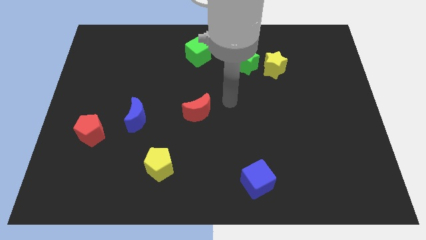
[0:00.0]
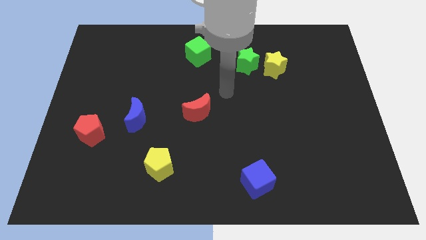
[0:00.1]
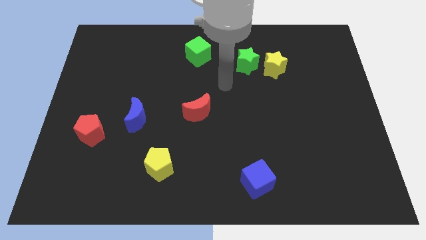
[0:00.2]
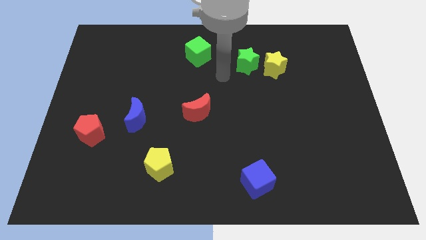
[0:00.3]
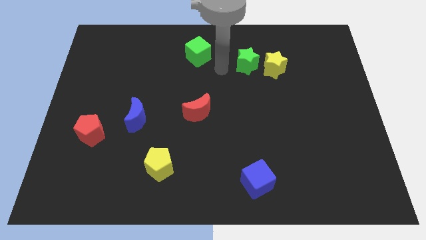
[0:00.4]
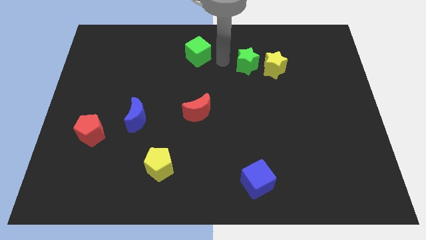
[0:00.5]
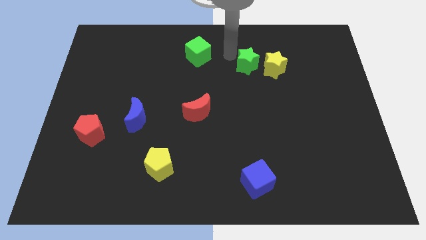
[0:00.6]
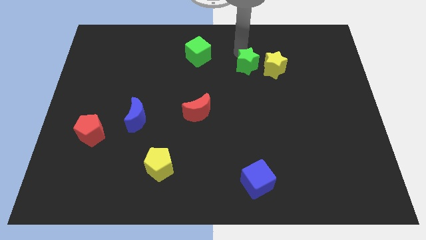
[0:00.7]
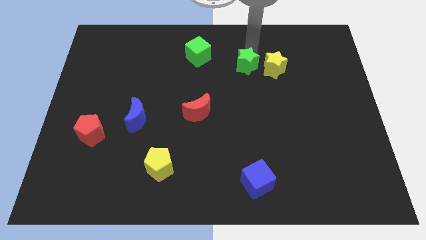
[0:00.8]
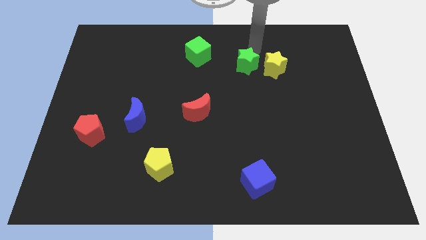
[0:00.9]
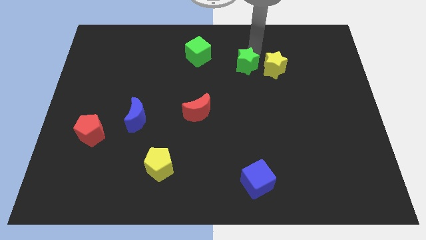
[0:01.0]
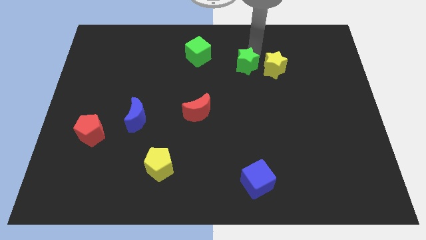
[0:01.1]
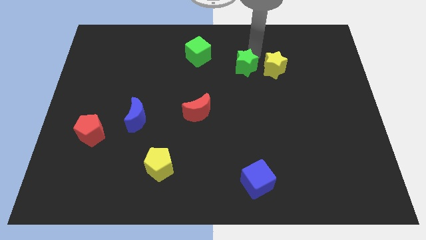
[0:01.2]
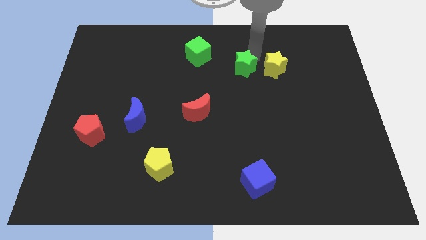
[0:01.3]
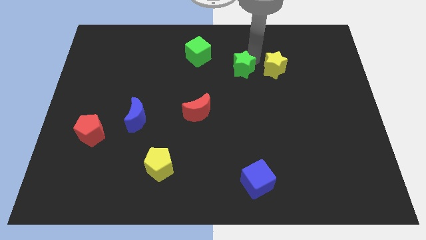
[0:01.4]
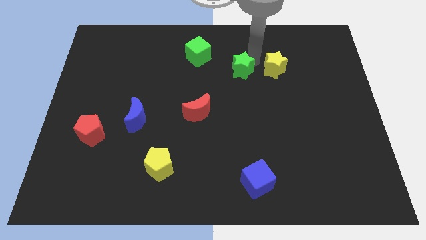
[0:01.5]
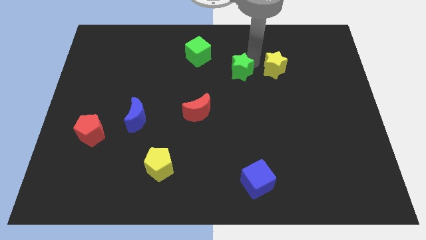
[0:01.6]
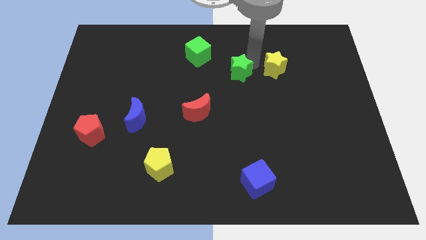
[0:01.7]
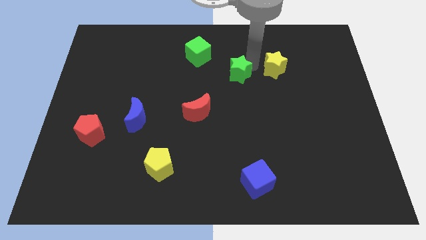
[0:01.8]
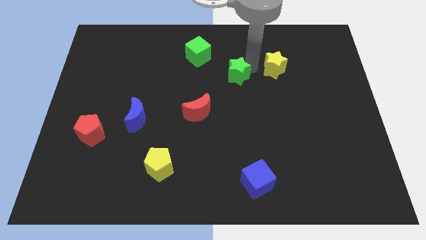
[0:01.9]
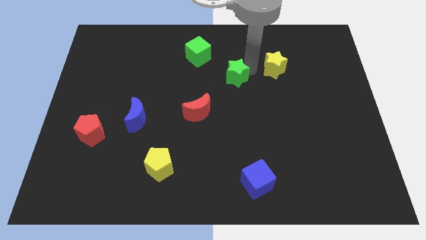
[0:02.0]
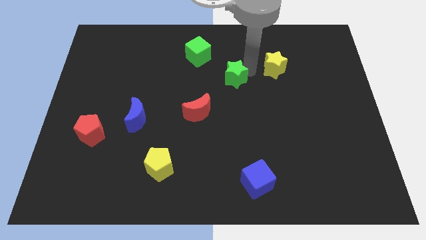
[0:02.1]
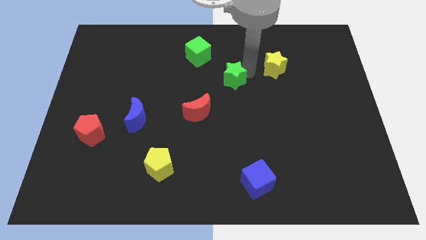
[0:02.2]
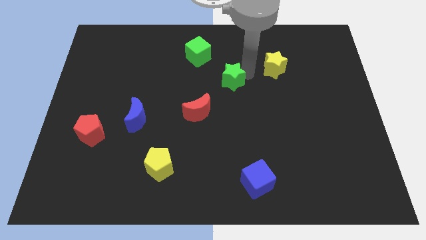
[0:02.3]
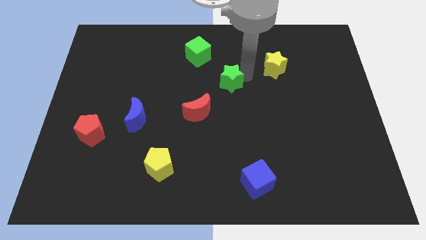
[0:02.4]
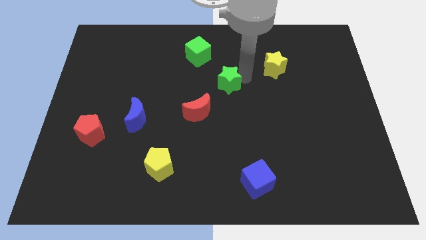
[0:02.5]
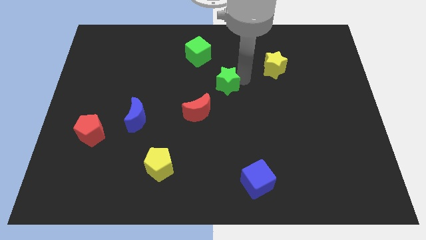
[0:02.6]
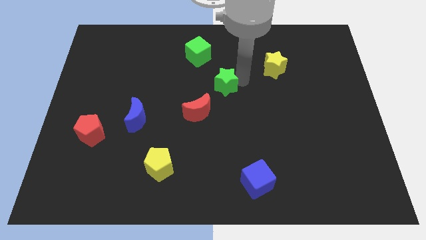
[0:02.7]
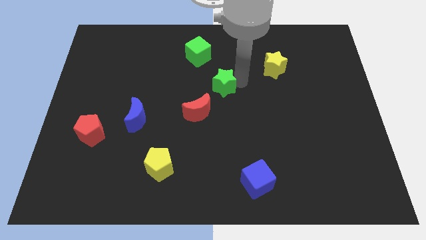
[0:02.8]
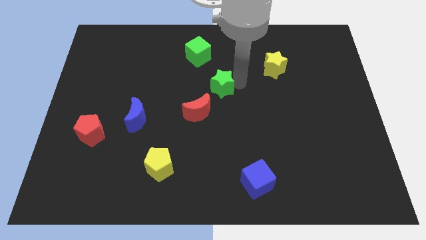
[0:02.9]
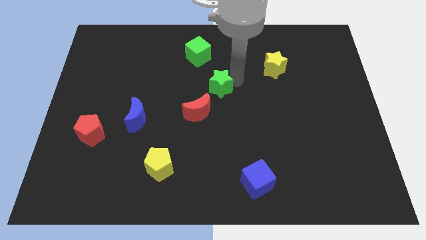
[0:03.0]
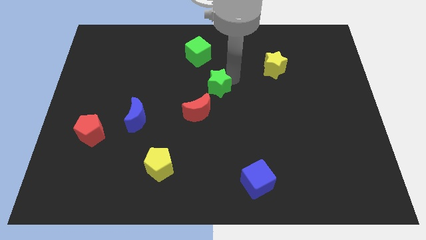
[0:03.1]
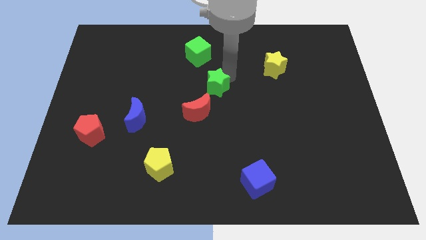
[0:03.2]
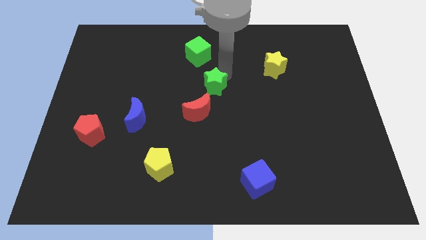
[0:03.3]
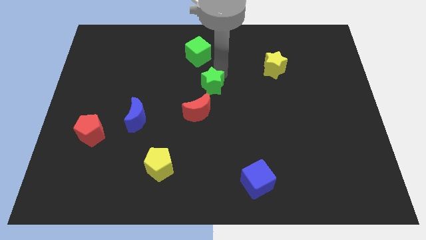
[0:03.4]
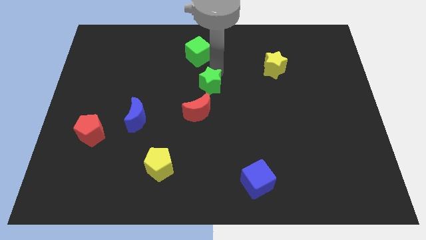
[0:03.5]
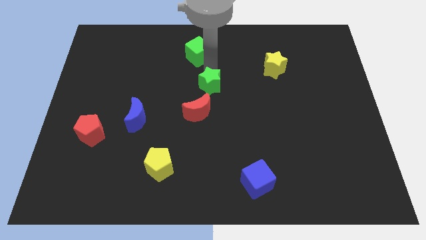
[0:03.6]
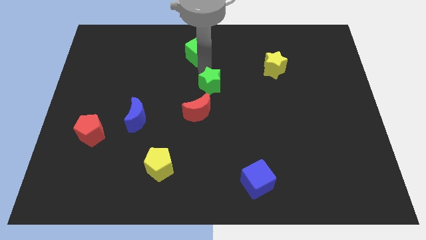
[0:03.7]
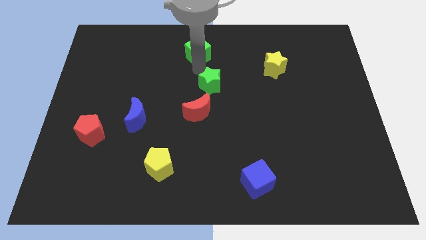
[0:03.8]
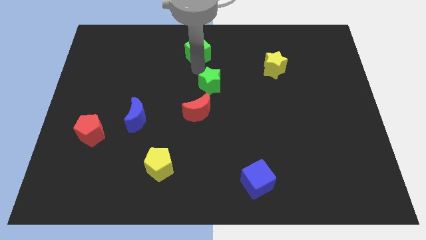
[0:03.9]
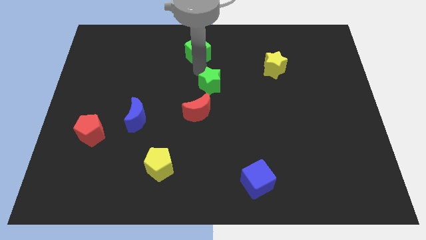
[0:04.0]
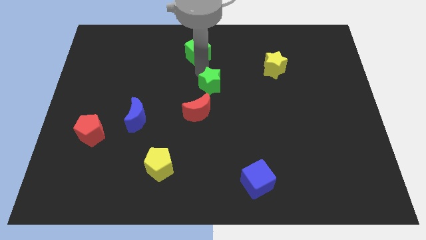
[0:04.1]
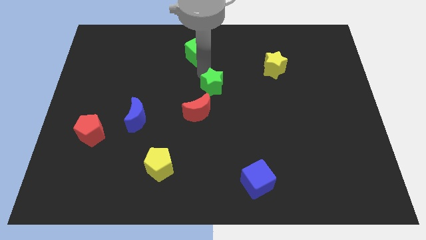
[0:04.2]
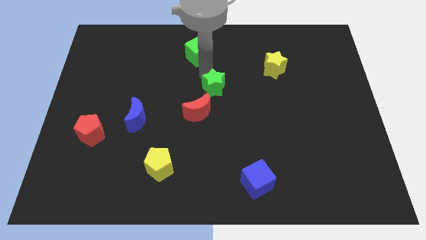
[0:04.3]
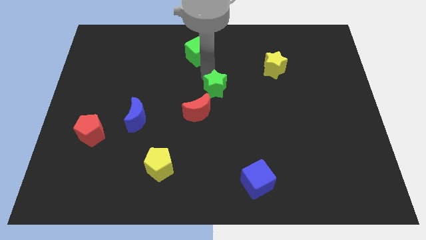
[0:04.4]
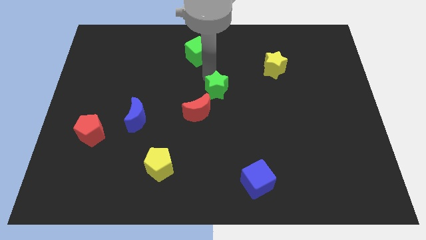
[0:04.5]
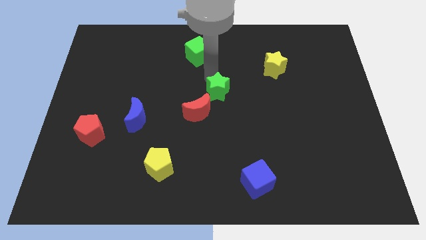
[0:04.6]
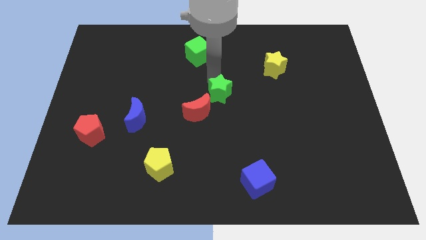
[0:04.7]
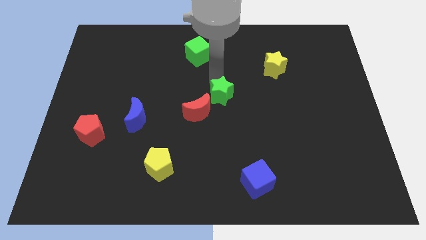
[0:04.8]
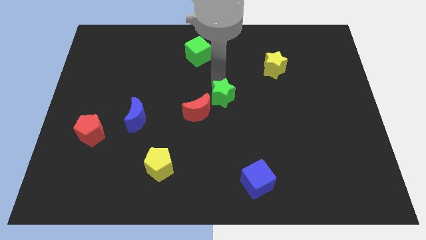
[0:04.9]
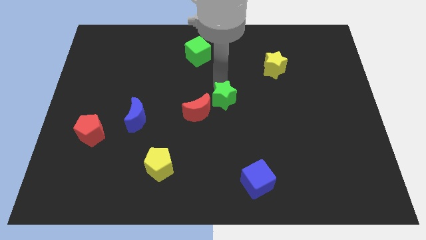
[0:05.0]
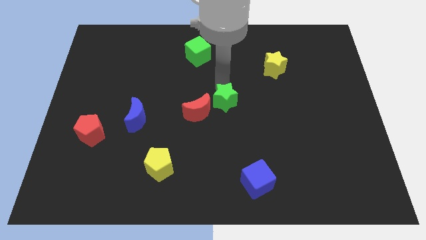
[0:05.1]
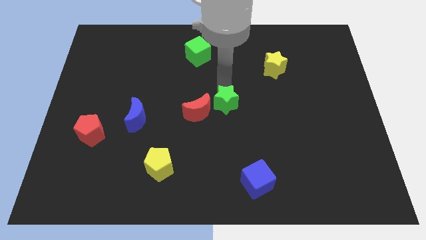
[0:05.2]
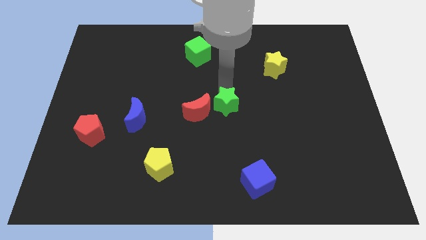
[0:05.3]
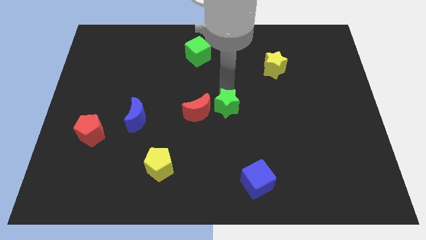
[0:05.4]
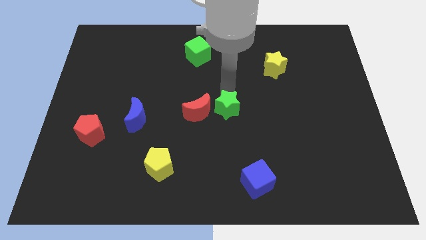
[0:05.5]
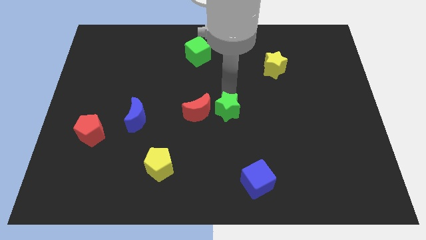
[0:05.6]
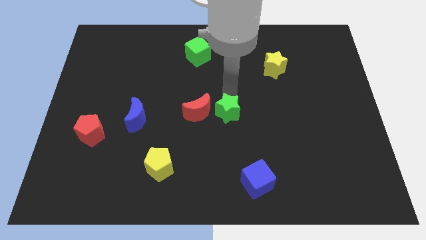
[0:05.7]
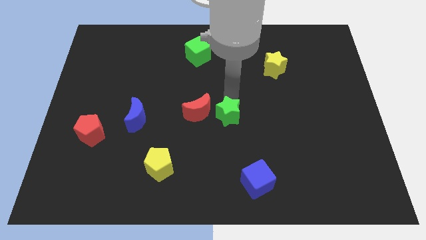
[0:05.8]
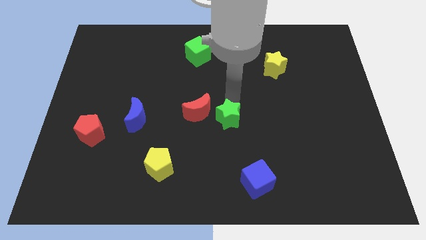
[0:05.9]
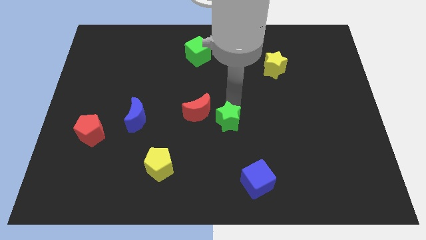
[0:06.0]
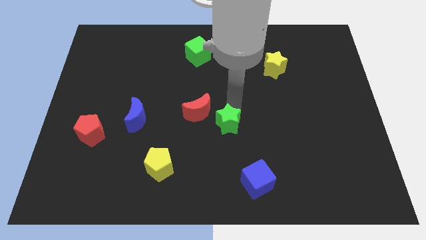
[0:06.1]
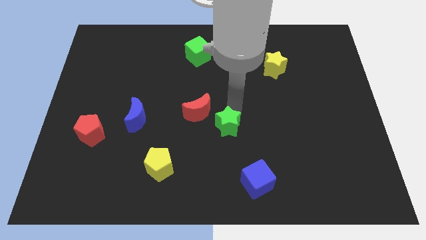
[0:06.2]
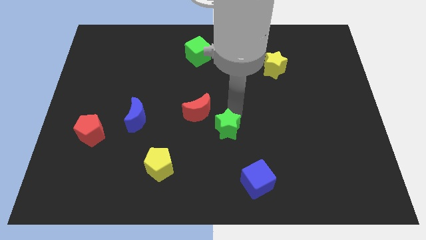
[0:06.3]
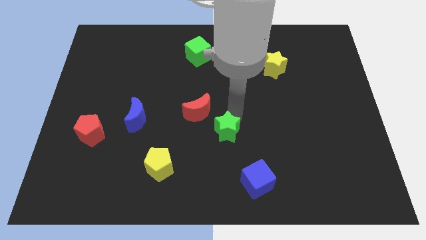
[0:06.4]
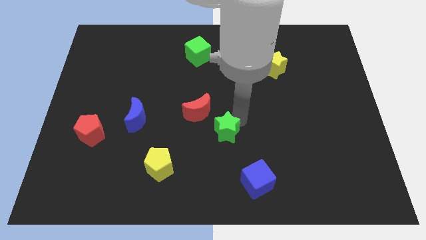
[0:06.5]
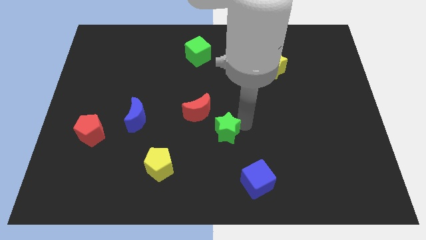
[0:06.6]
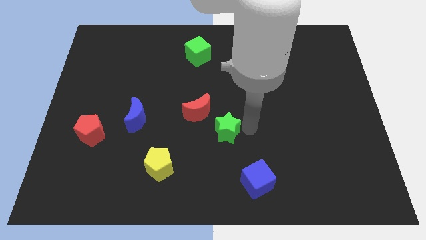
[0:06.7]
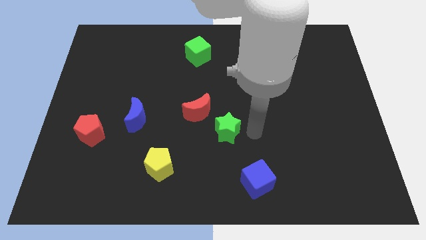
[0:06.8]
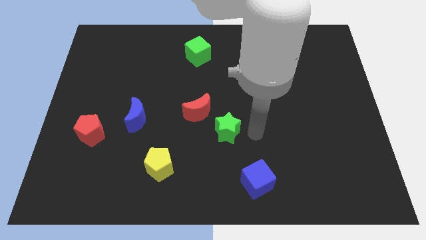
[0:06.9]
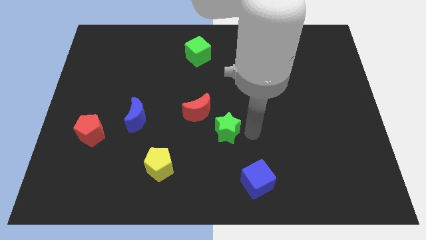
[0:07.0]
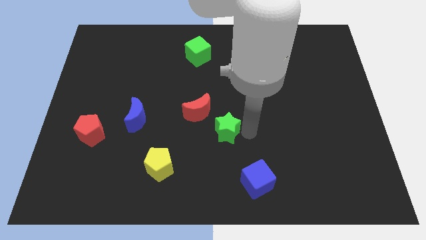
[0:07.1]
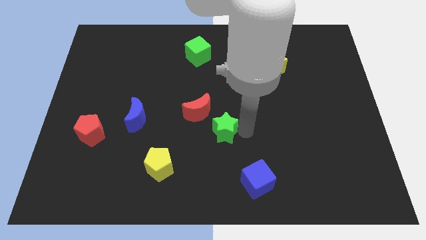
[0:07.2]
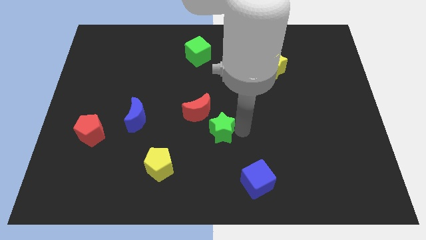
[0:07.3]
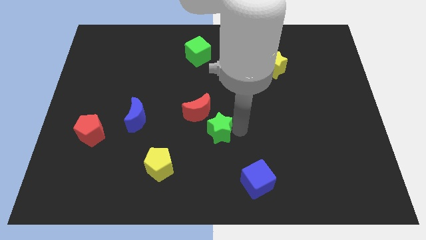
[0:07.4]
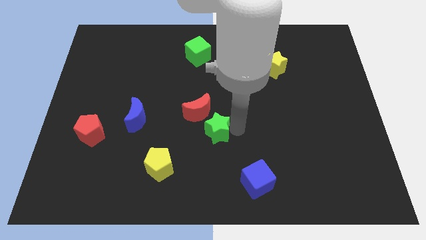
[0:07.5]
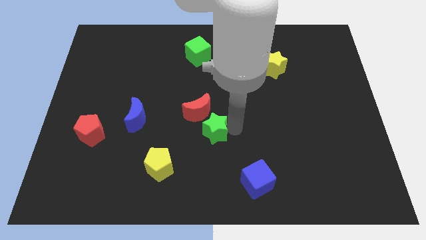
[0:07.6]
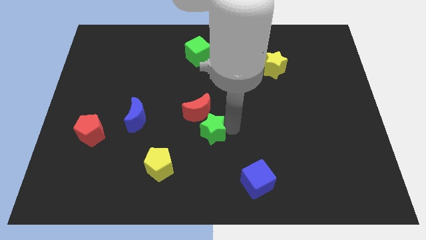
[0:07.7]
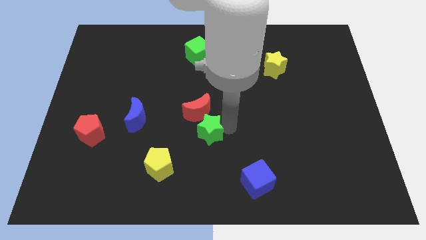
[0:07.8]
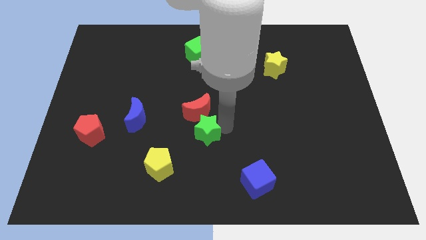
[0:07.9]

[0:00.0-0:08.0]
slide the green star diagonally up and to the right of the yellow pentagon
